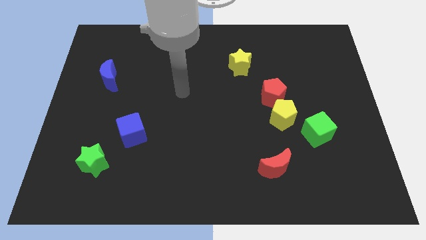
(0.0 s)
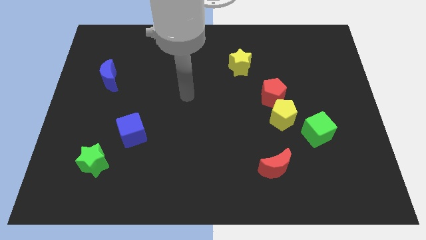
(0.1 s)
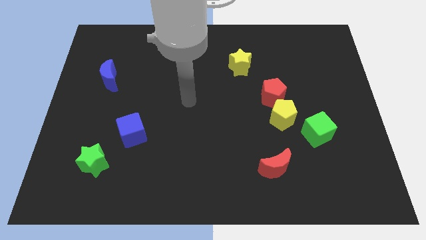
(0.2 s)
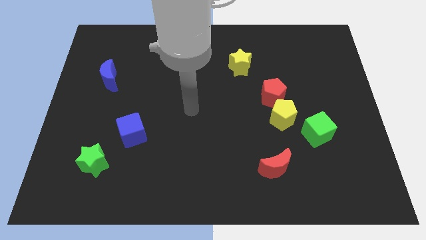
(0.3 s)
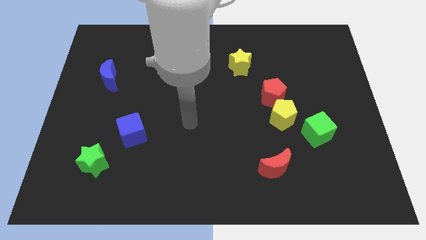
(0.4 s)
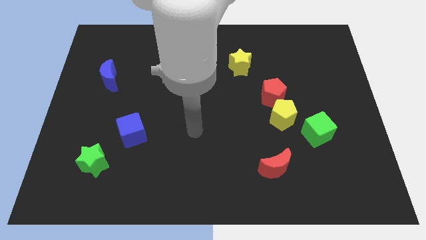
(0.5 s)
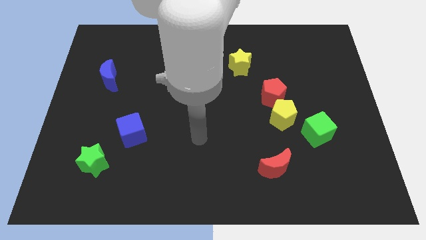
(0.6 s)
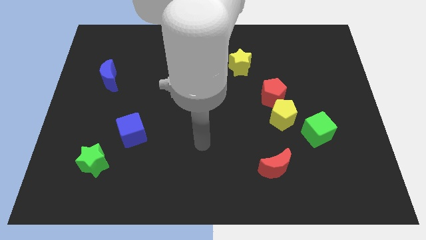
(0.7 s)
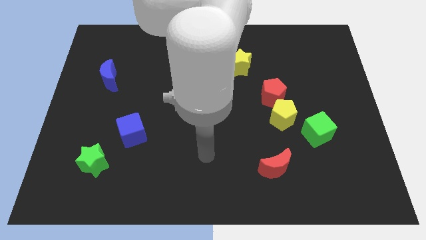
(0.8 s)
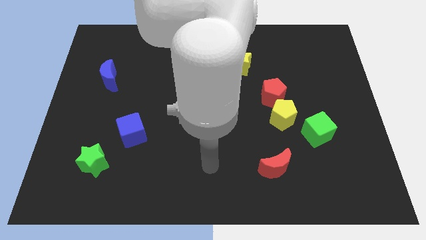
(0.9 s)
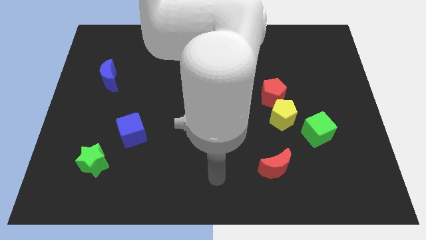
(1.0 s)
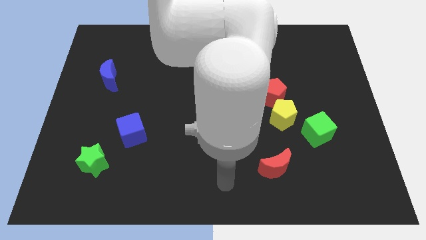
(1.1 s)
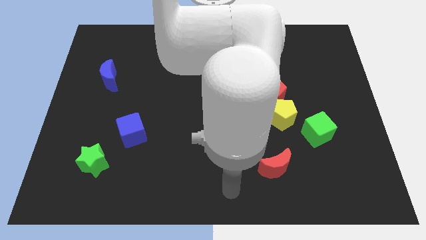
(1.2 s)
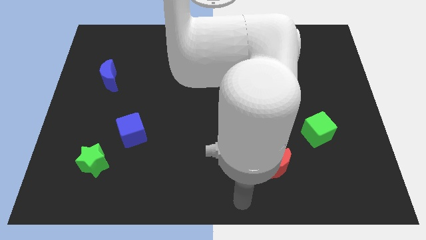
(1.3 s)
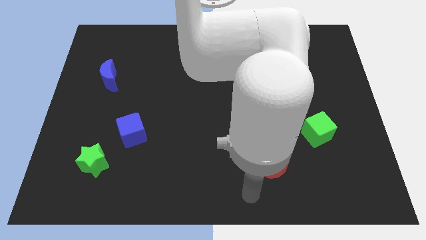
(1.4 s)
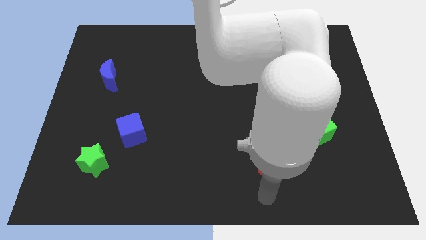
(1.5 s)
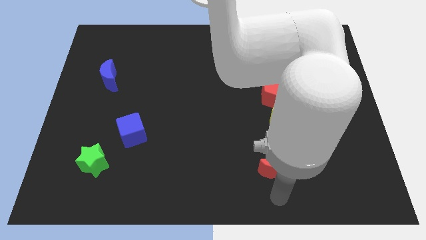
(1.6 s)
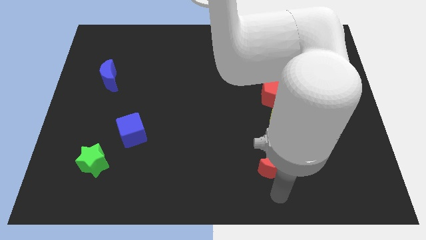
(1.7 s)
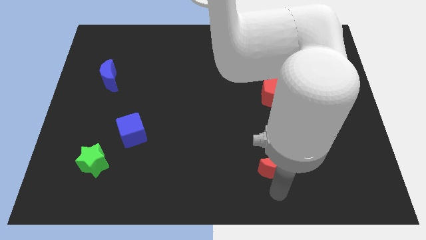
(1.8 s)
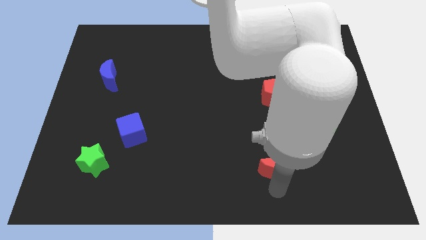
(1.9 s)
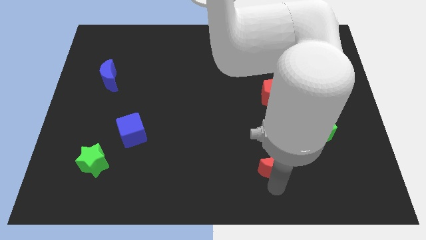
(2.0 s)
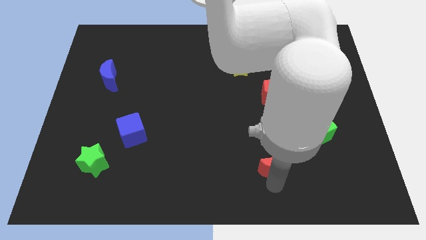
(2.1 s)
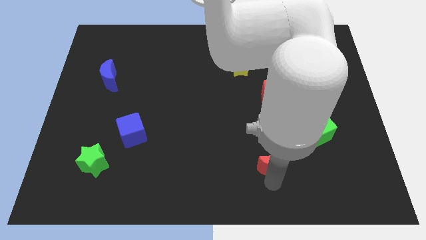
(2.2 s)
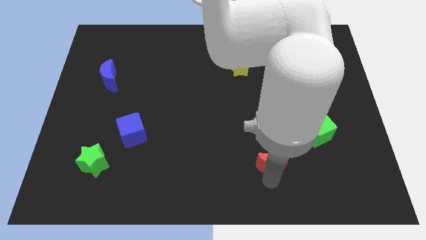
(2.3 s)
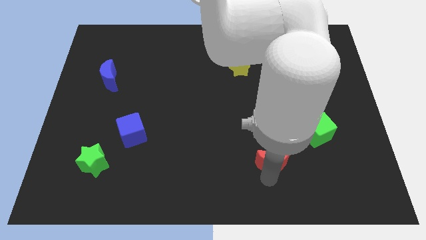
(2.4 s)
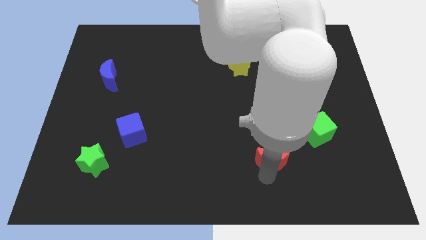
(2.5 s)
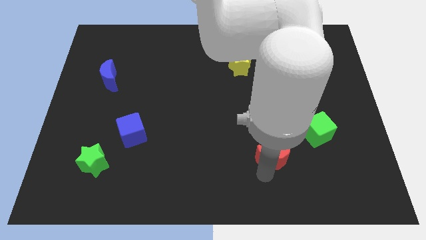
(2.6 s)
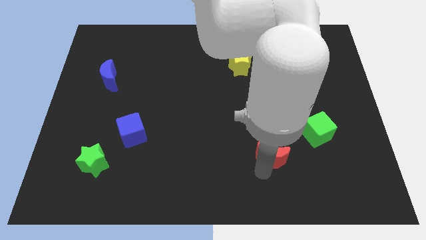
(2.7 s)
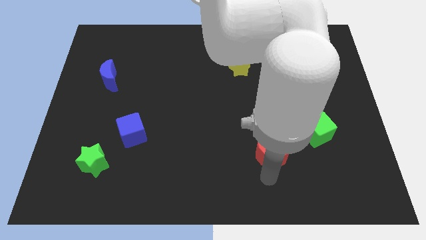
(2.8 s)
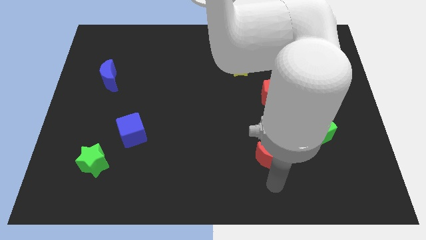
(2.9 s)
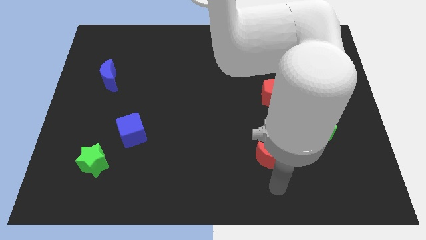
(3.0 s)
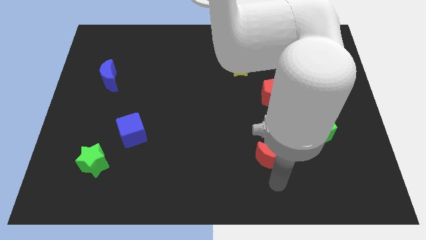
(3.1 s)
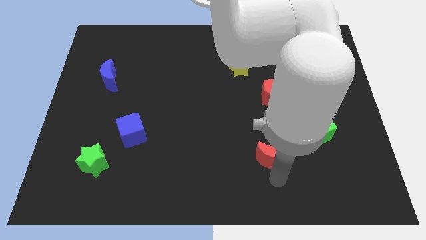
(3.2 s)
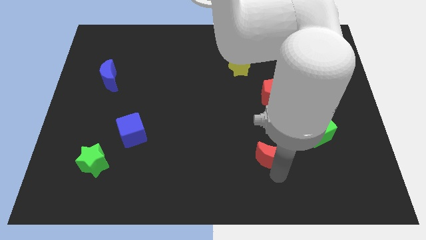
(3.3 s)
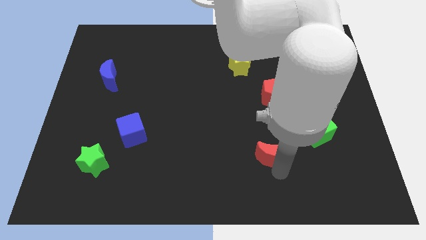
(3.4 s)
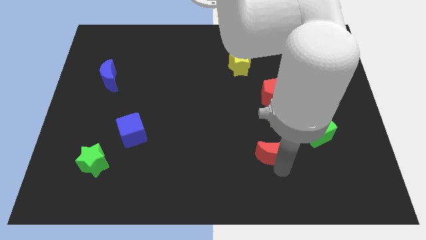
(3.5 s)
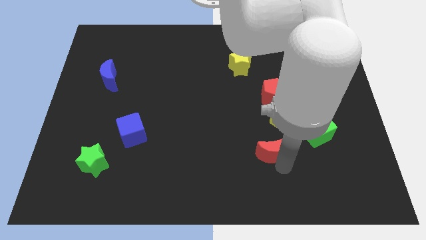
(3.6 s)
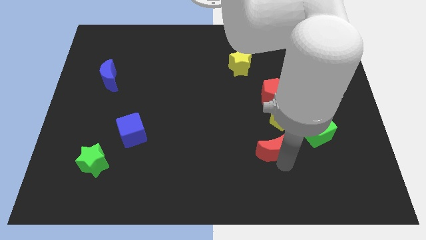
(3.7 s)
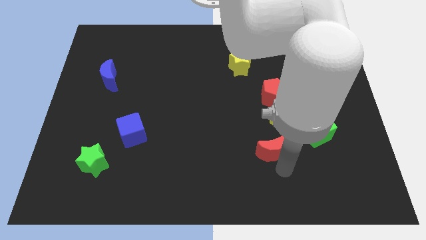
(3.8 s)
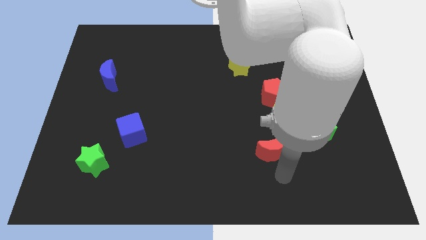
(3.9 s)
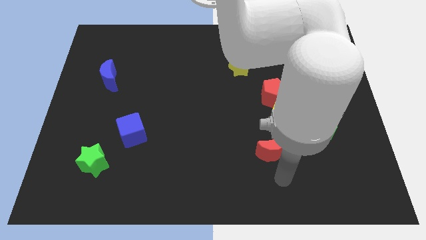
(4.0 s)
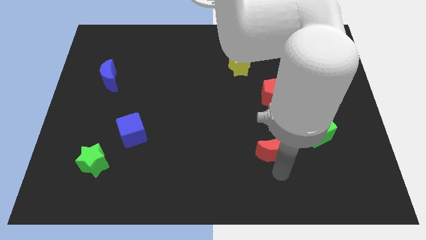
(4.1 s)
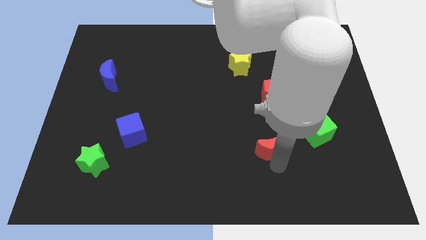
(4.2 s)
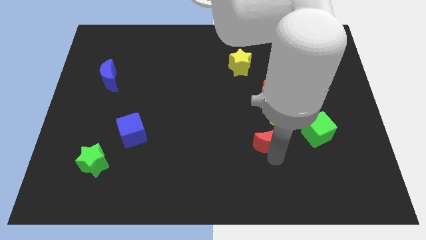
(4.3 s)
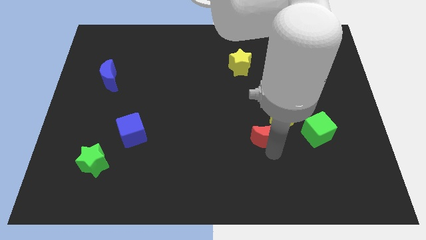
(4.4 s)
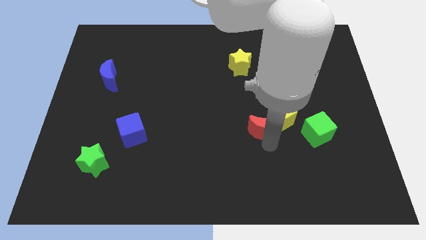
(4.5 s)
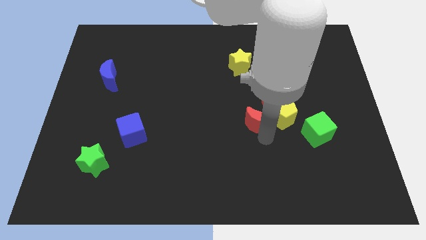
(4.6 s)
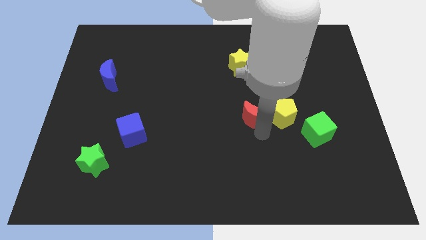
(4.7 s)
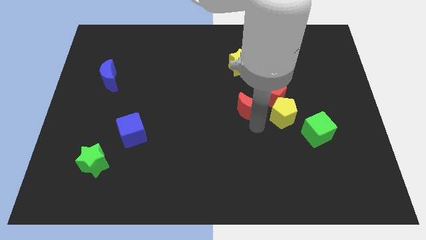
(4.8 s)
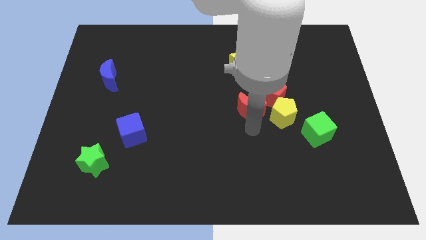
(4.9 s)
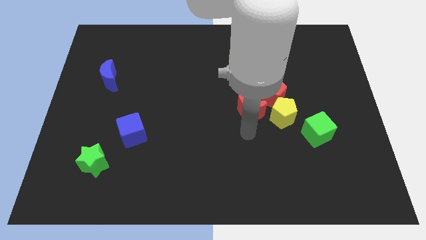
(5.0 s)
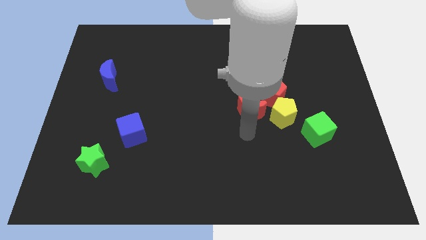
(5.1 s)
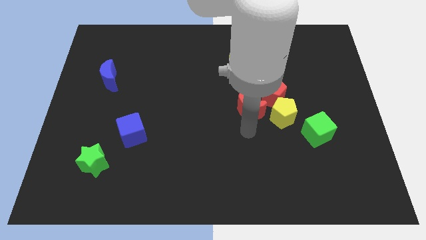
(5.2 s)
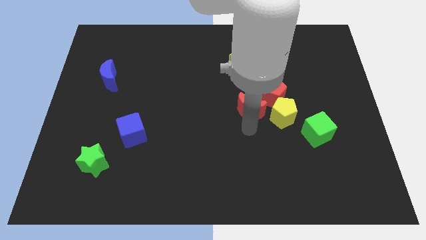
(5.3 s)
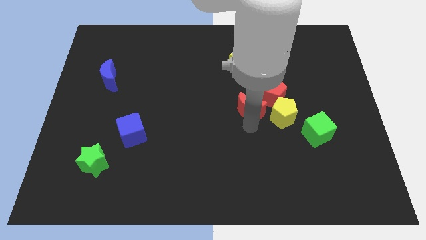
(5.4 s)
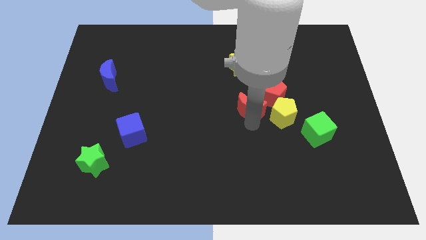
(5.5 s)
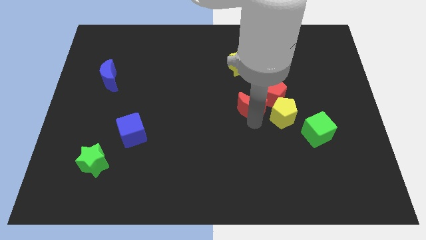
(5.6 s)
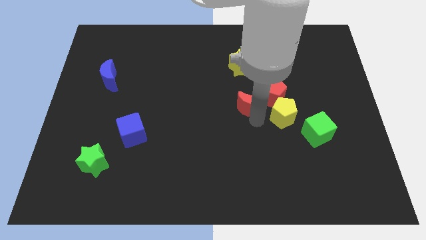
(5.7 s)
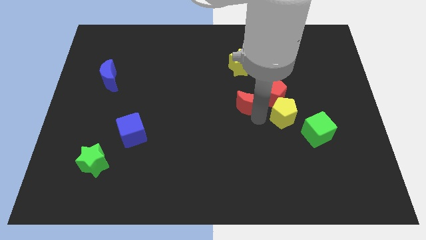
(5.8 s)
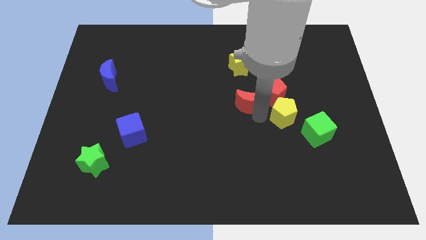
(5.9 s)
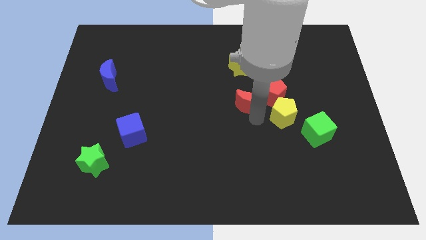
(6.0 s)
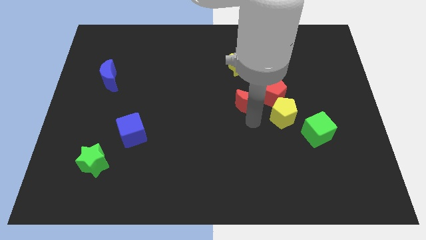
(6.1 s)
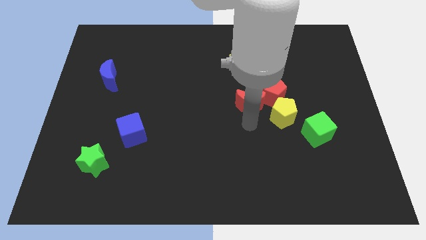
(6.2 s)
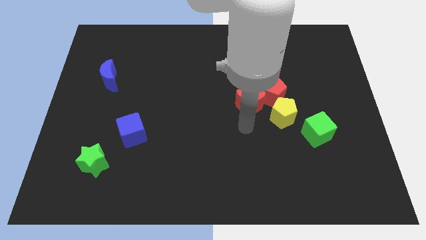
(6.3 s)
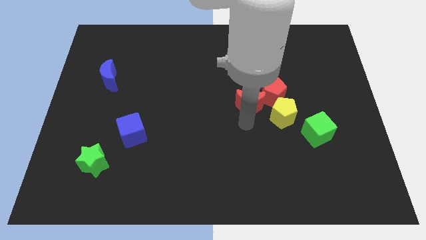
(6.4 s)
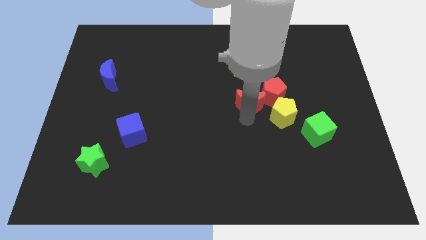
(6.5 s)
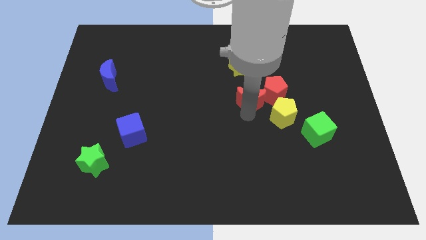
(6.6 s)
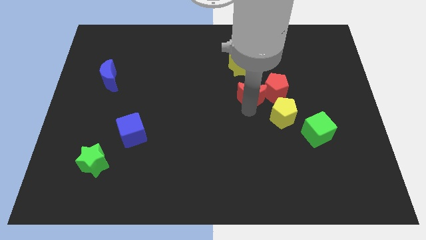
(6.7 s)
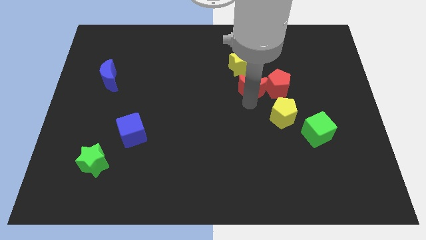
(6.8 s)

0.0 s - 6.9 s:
push the red moon upwards

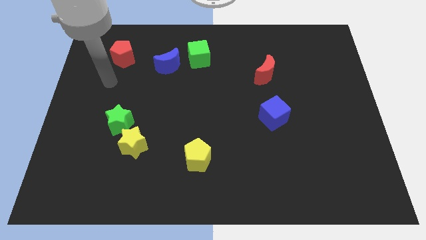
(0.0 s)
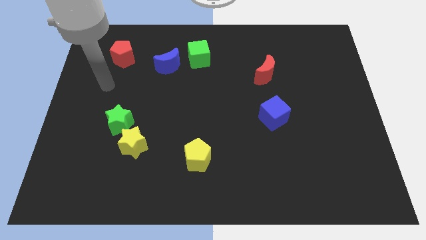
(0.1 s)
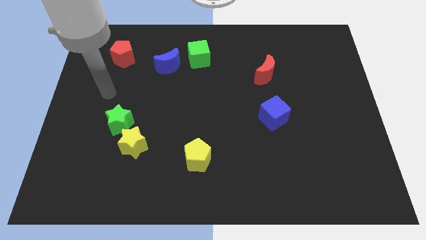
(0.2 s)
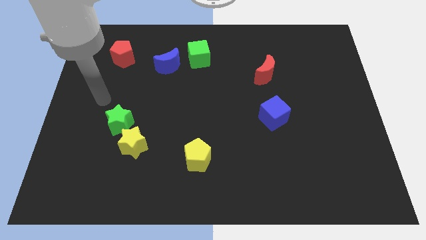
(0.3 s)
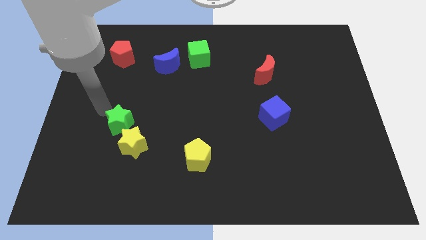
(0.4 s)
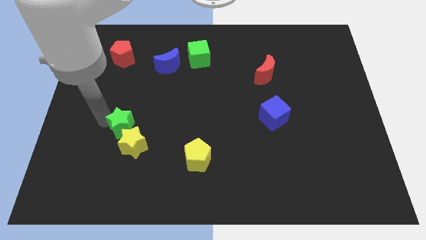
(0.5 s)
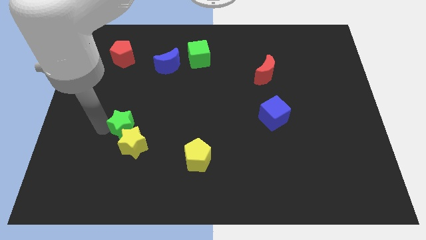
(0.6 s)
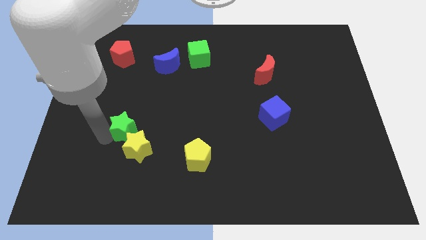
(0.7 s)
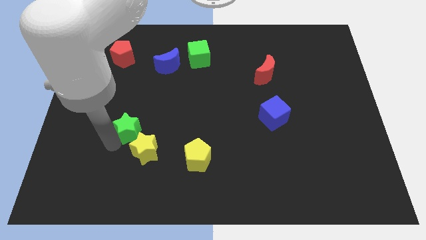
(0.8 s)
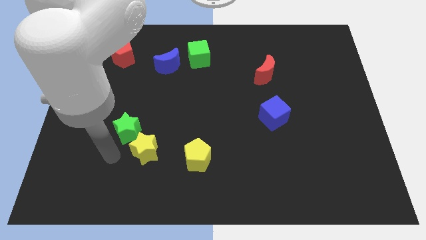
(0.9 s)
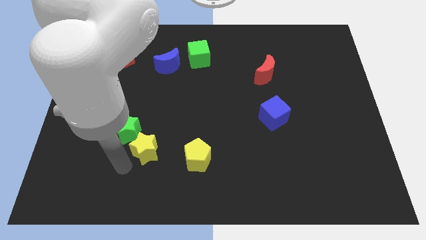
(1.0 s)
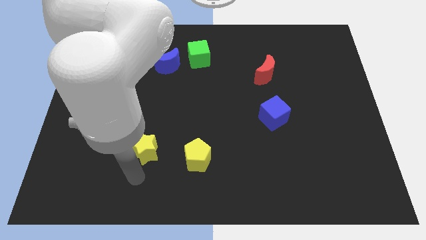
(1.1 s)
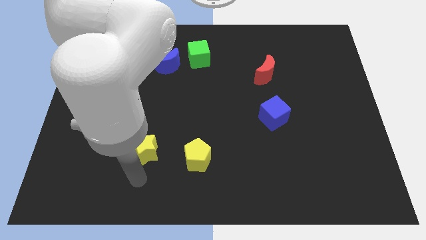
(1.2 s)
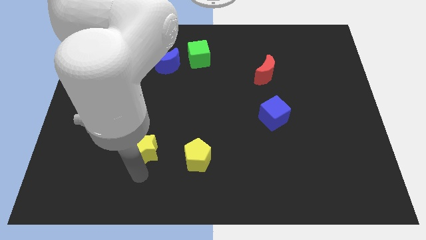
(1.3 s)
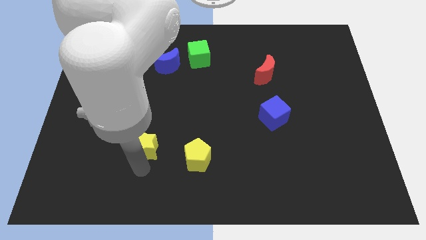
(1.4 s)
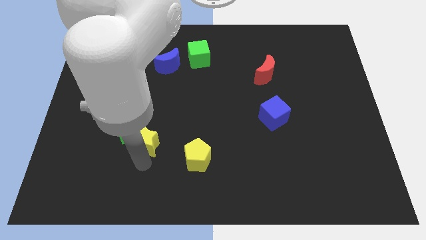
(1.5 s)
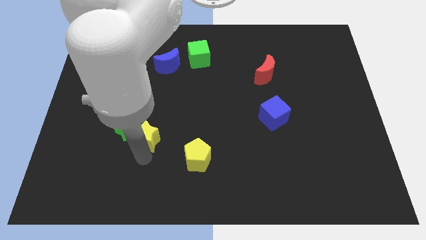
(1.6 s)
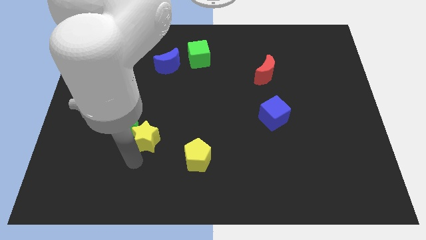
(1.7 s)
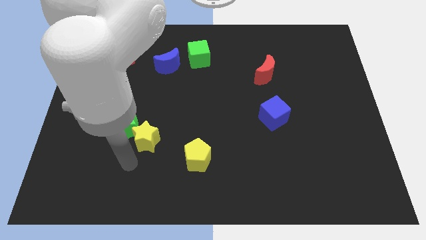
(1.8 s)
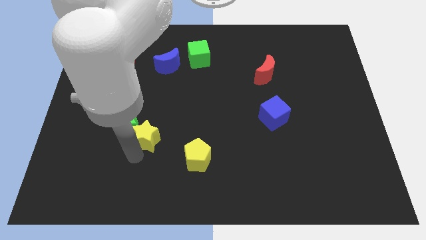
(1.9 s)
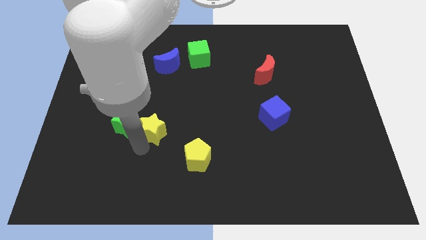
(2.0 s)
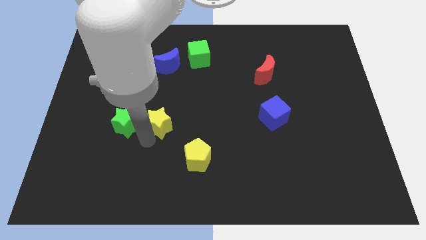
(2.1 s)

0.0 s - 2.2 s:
move the yellow star somewhat diagonally up and to the right
